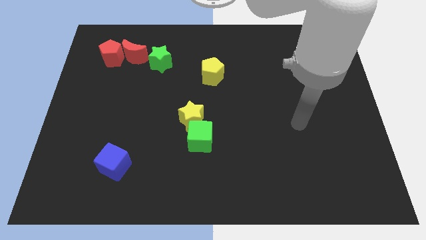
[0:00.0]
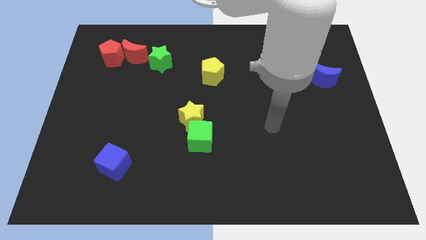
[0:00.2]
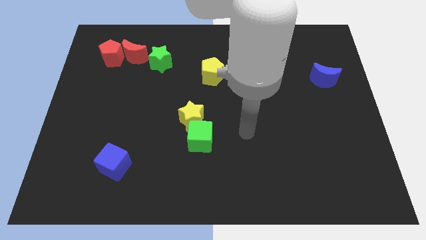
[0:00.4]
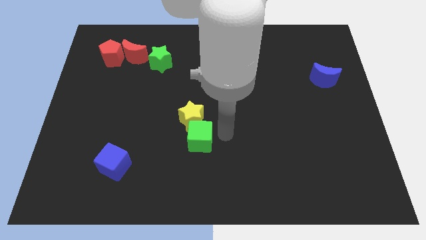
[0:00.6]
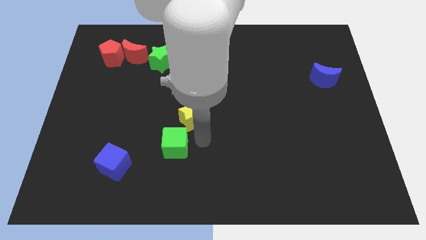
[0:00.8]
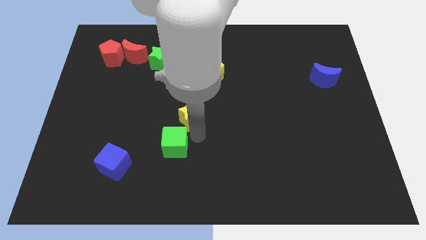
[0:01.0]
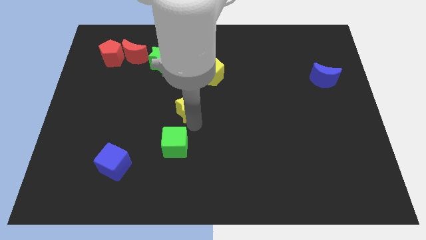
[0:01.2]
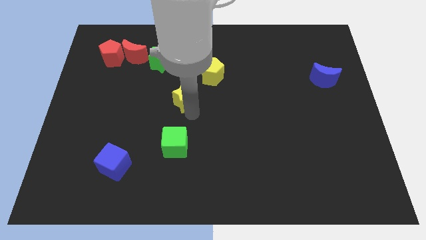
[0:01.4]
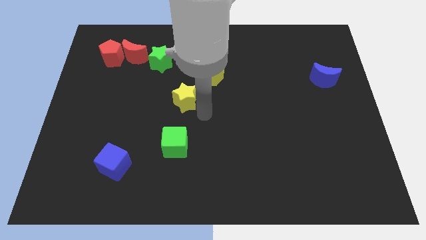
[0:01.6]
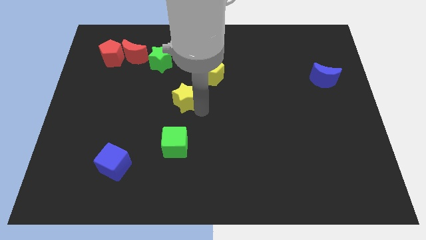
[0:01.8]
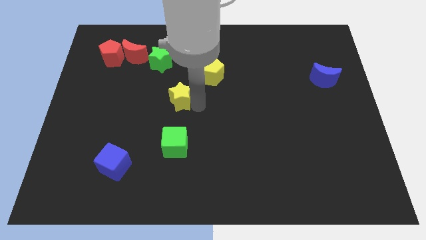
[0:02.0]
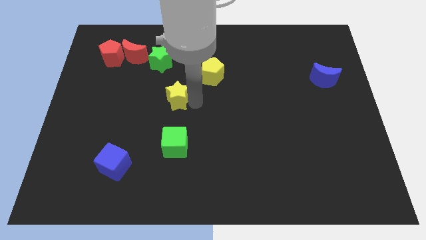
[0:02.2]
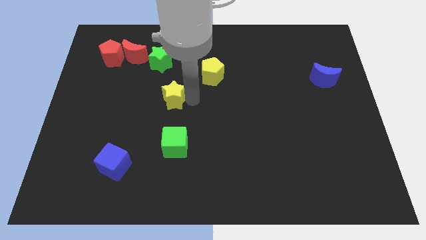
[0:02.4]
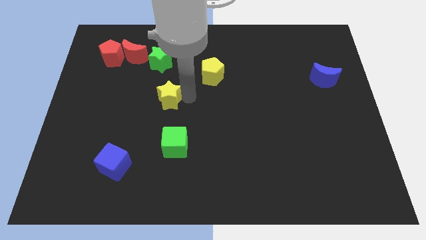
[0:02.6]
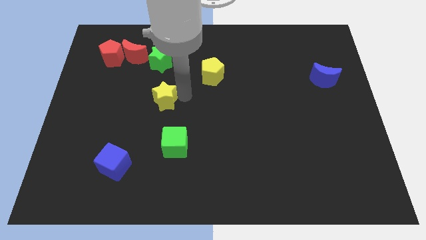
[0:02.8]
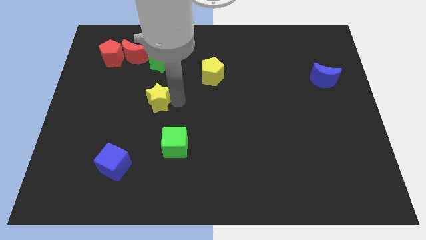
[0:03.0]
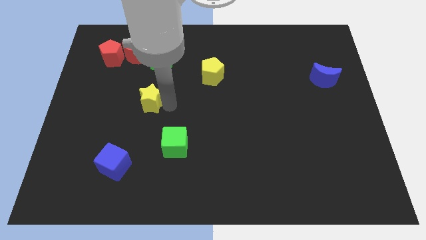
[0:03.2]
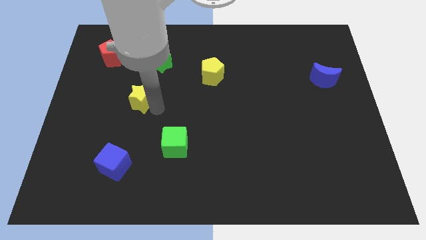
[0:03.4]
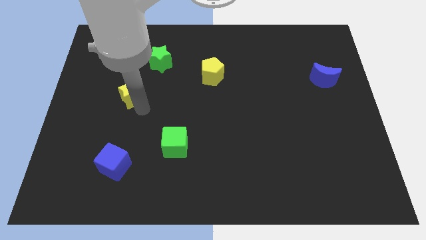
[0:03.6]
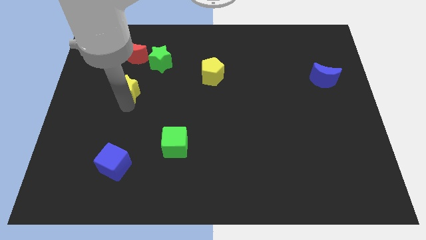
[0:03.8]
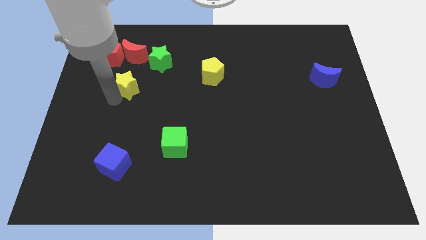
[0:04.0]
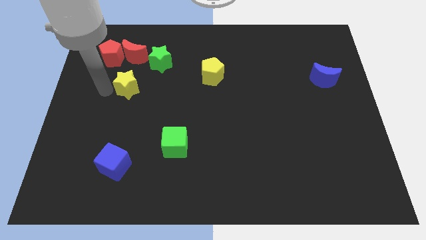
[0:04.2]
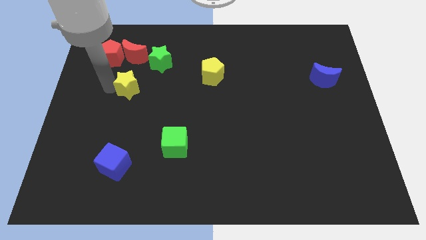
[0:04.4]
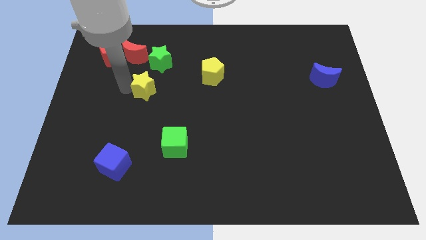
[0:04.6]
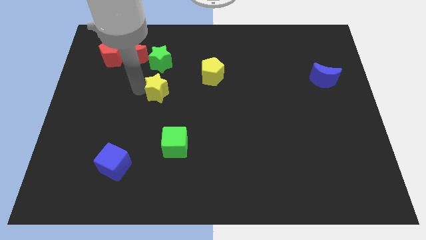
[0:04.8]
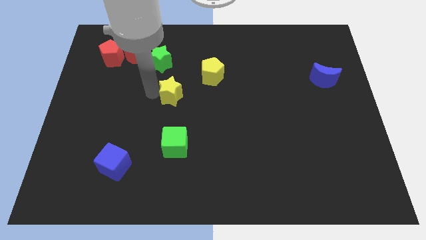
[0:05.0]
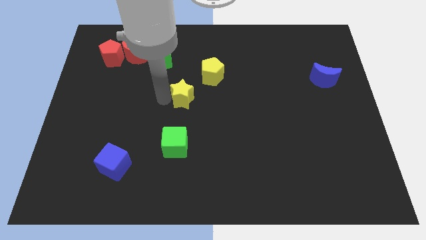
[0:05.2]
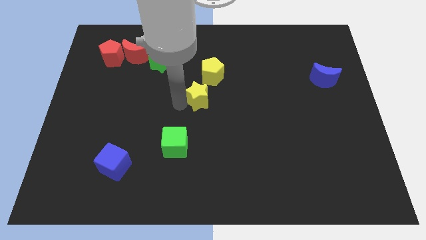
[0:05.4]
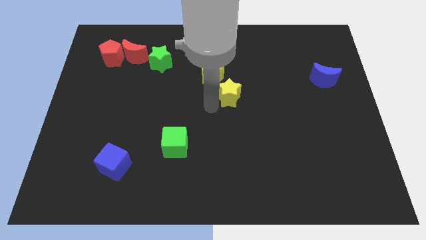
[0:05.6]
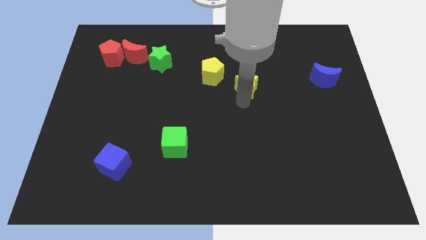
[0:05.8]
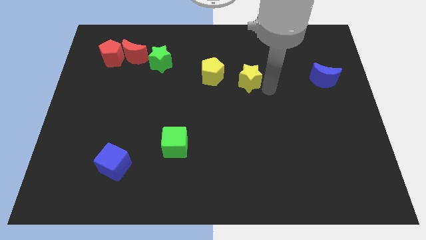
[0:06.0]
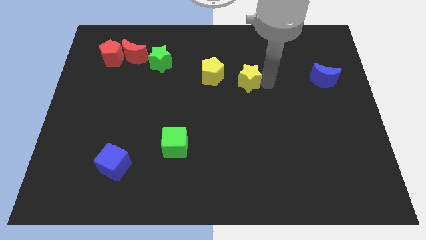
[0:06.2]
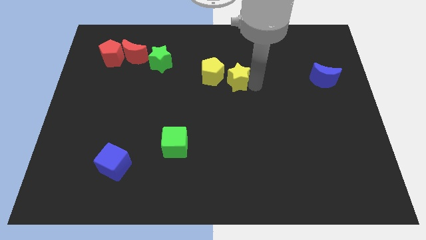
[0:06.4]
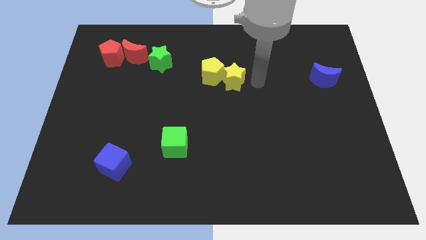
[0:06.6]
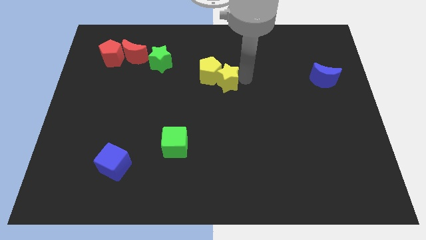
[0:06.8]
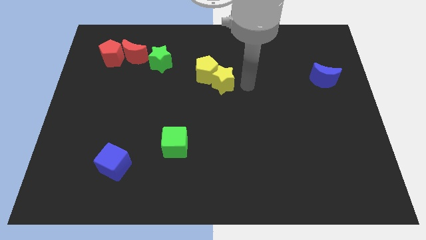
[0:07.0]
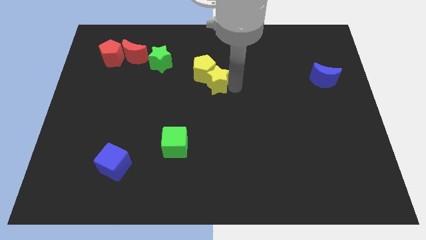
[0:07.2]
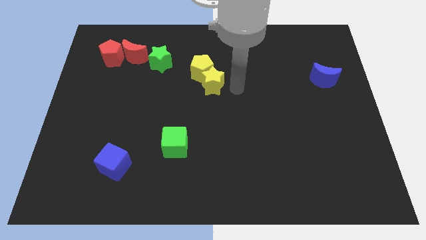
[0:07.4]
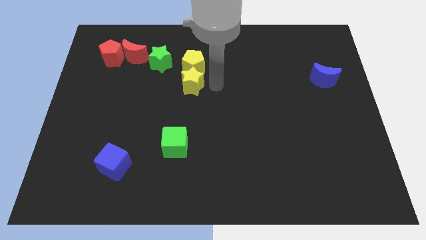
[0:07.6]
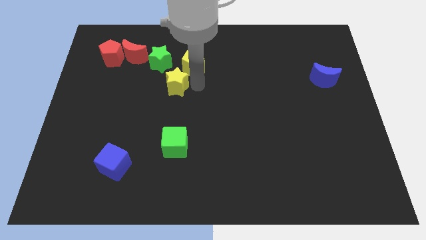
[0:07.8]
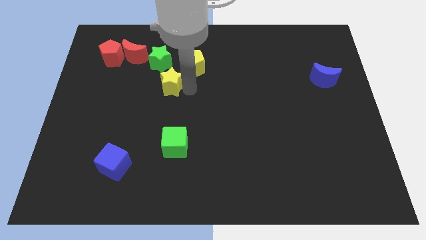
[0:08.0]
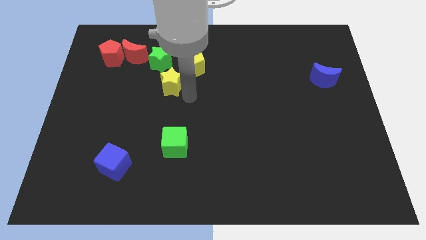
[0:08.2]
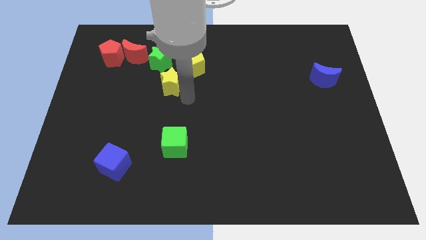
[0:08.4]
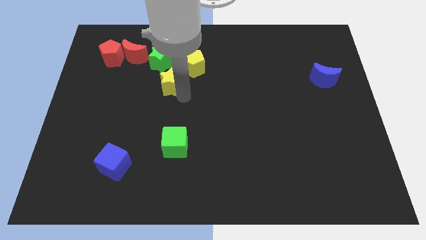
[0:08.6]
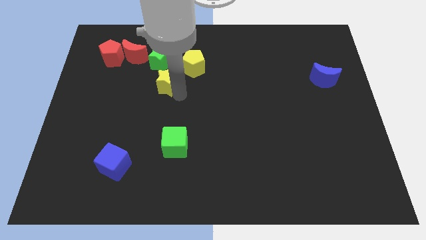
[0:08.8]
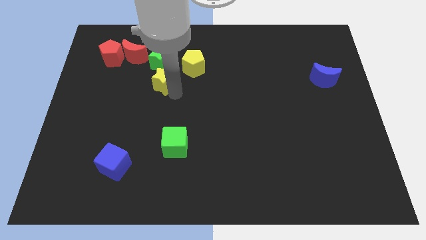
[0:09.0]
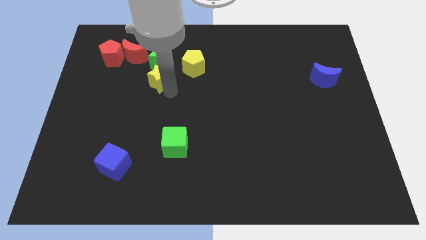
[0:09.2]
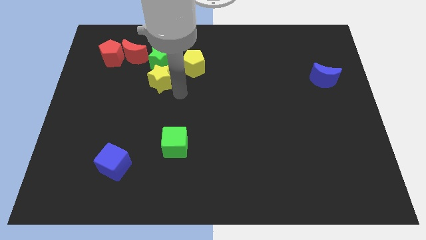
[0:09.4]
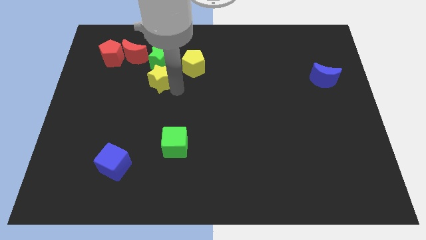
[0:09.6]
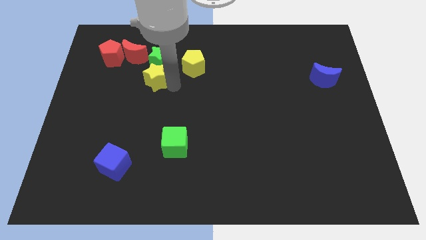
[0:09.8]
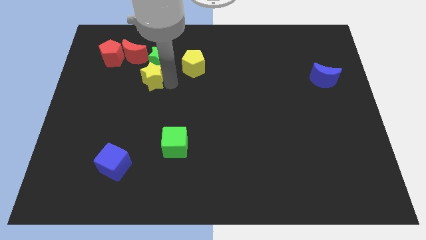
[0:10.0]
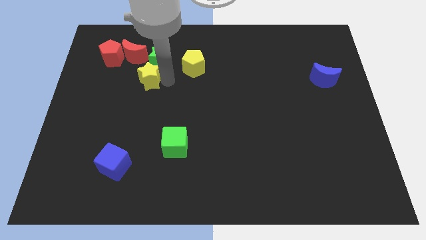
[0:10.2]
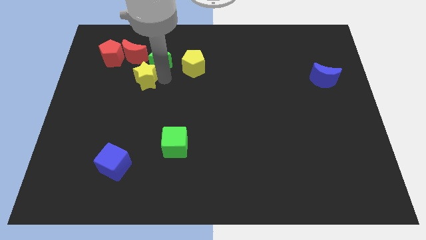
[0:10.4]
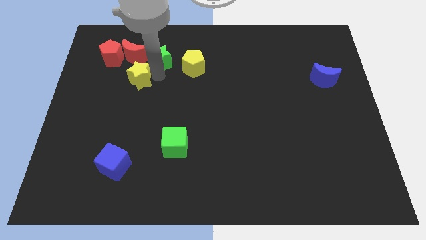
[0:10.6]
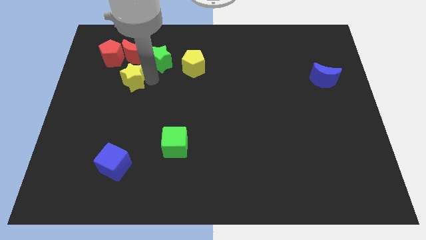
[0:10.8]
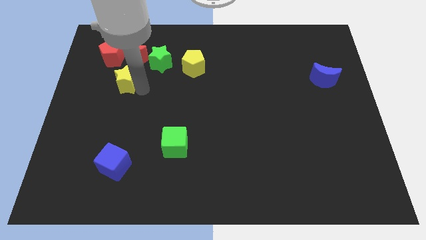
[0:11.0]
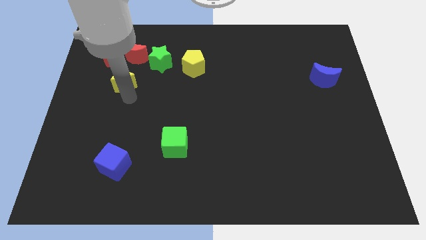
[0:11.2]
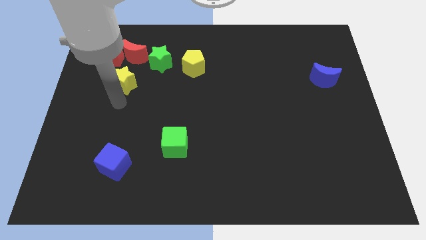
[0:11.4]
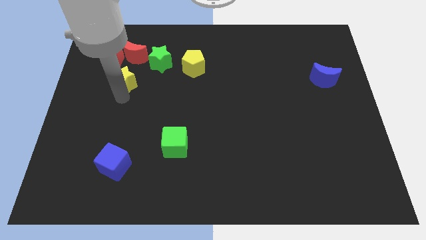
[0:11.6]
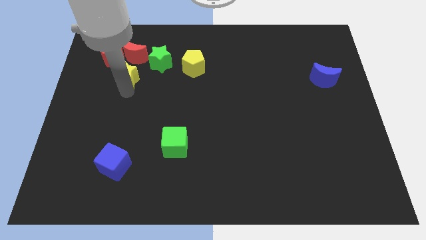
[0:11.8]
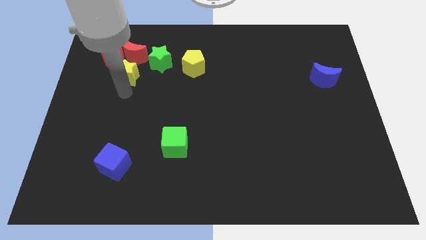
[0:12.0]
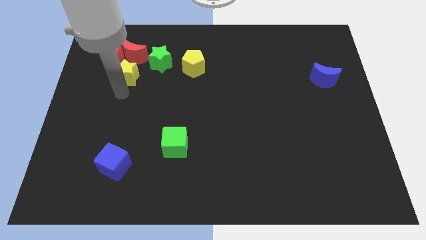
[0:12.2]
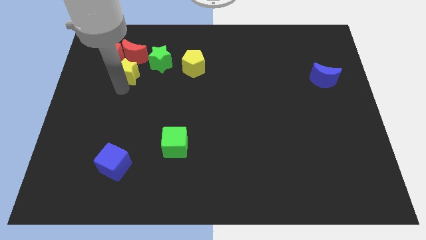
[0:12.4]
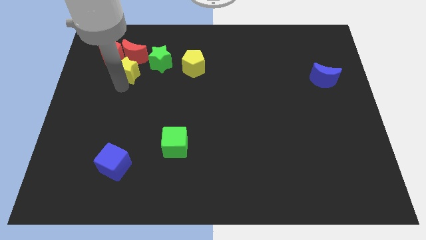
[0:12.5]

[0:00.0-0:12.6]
slide the yellow star close to the red moon

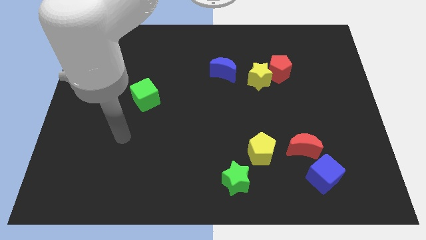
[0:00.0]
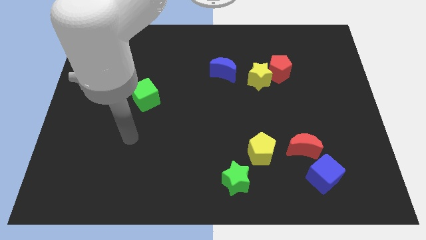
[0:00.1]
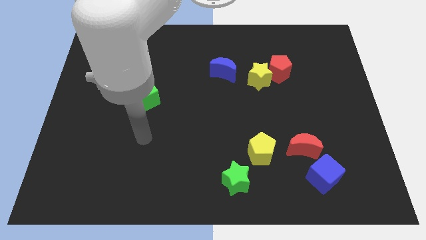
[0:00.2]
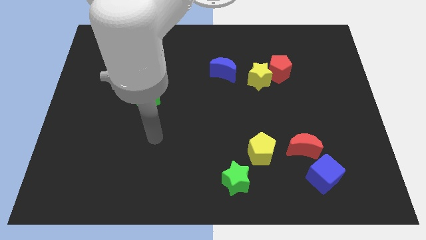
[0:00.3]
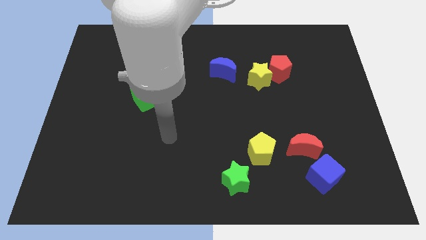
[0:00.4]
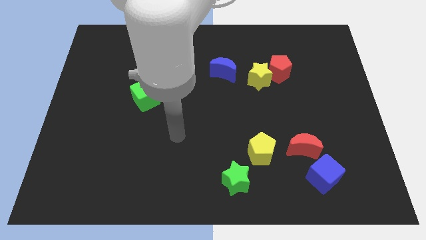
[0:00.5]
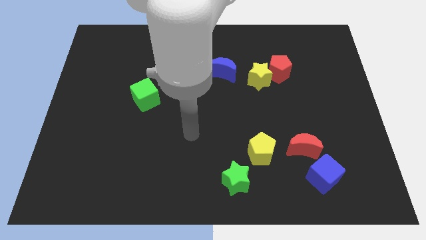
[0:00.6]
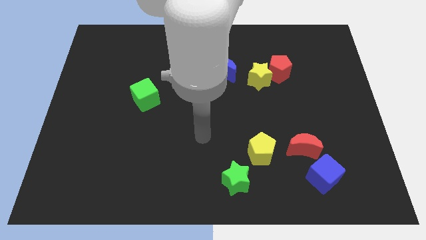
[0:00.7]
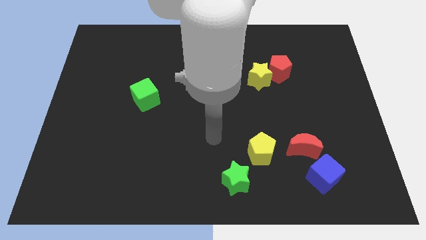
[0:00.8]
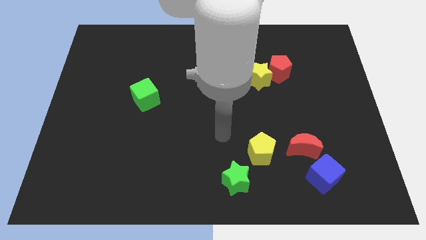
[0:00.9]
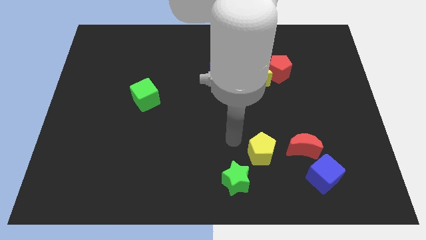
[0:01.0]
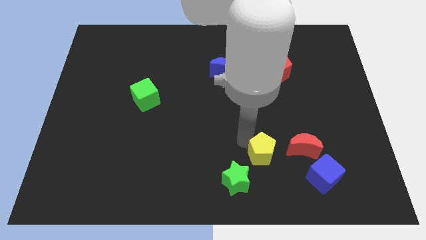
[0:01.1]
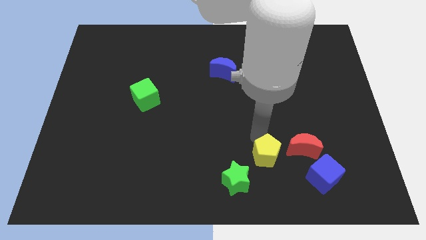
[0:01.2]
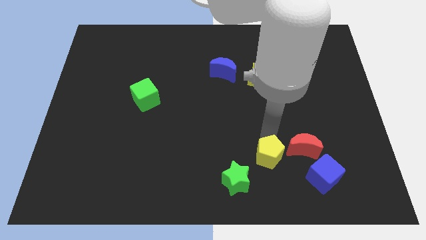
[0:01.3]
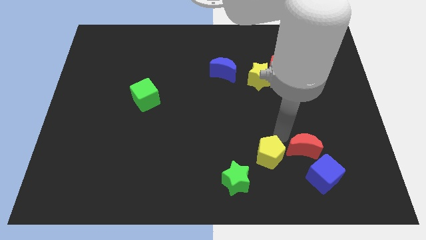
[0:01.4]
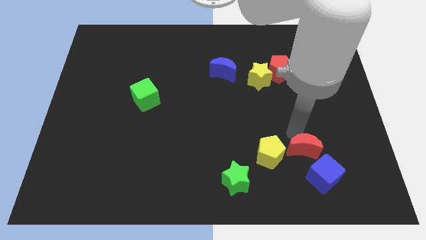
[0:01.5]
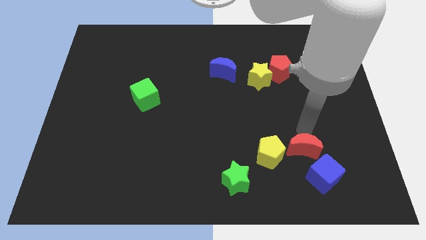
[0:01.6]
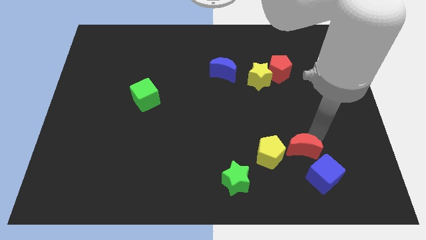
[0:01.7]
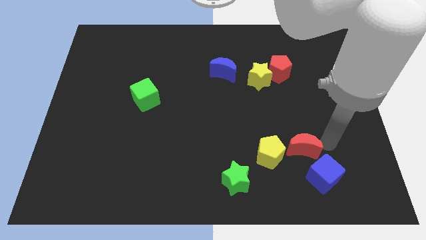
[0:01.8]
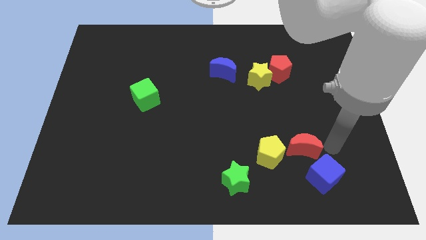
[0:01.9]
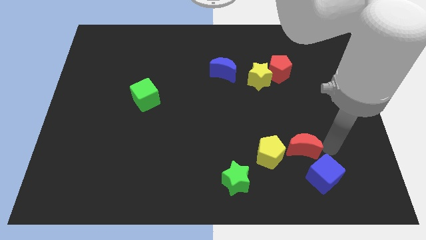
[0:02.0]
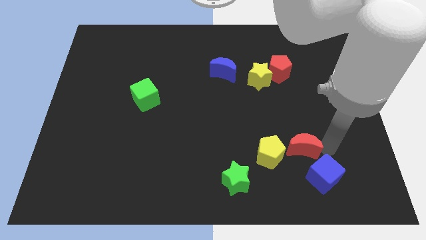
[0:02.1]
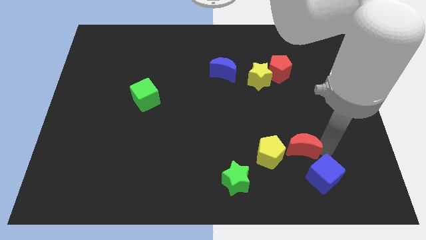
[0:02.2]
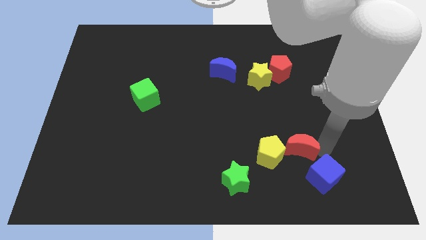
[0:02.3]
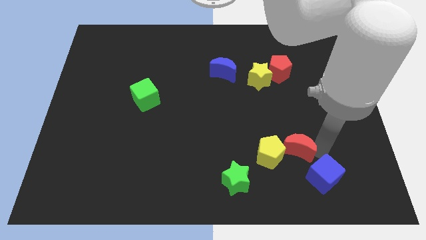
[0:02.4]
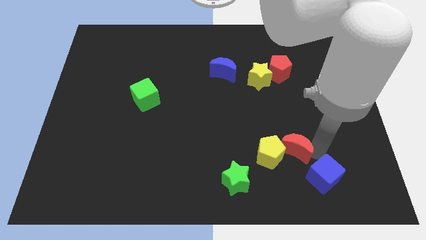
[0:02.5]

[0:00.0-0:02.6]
push the red moon next to the yellow pentagon
